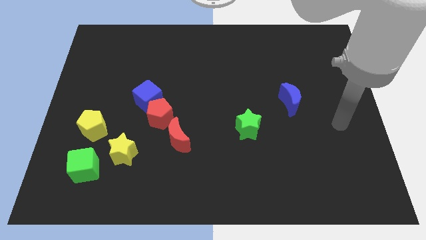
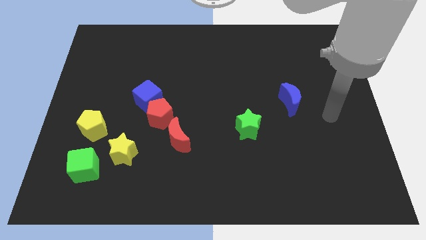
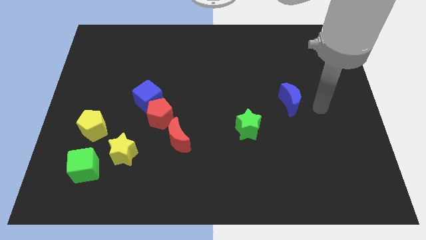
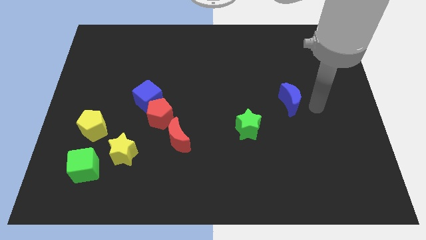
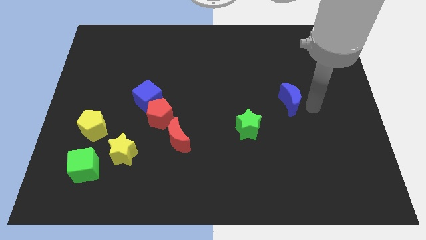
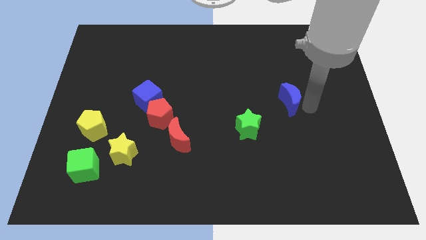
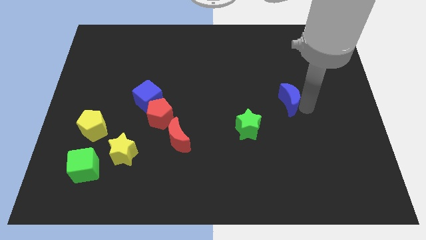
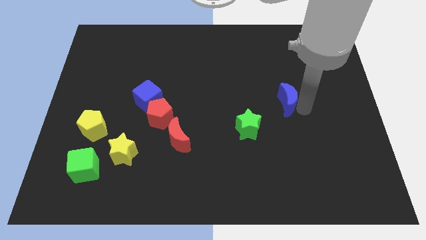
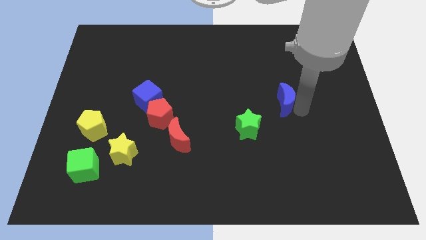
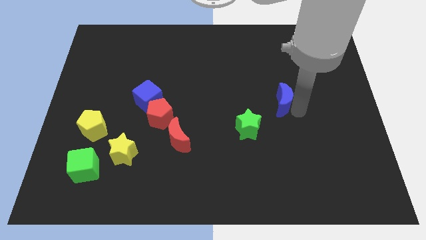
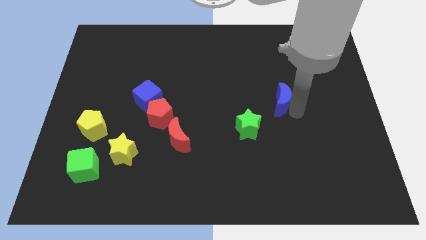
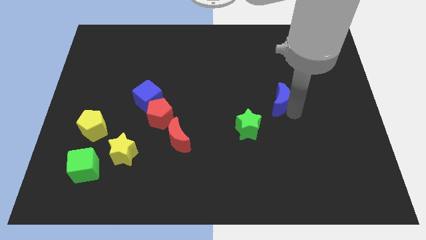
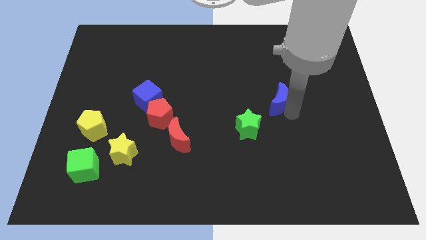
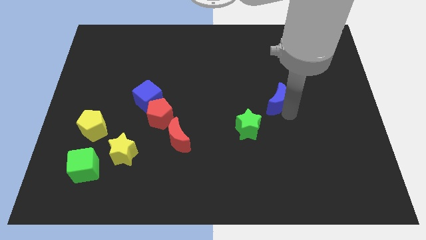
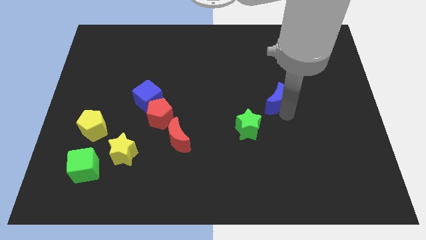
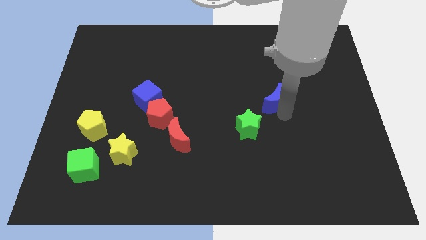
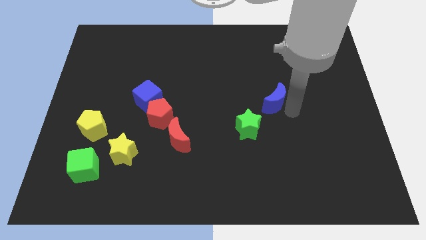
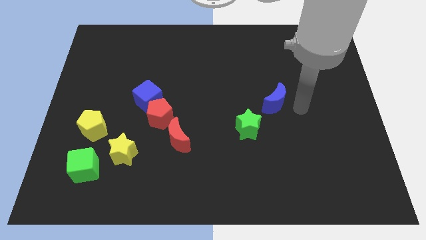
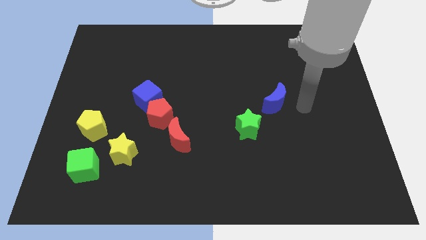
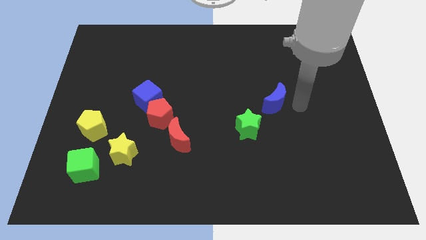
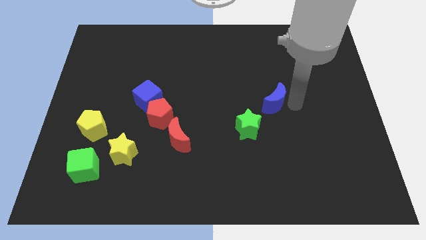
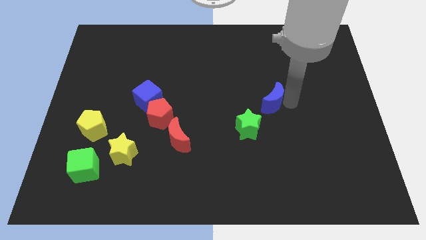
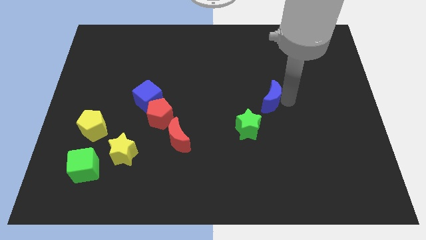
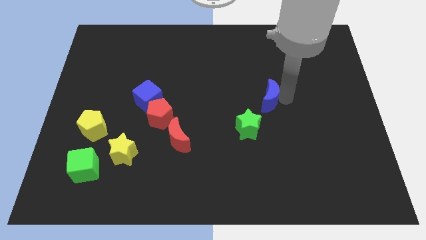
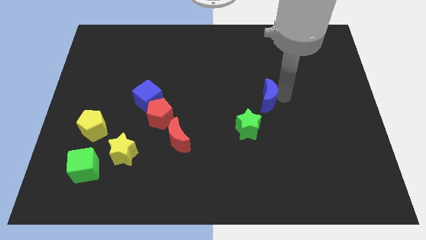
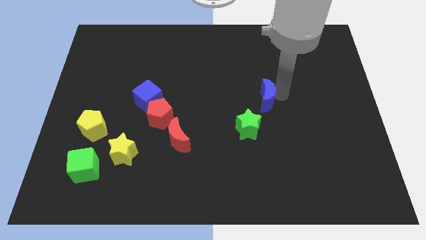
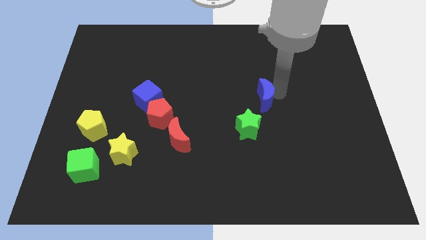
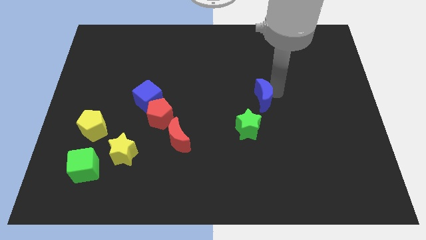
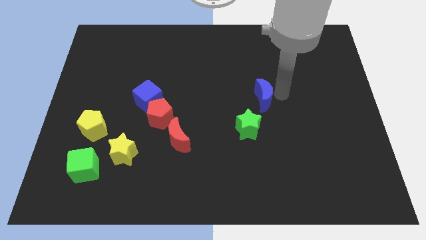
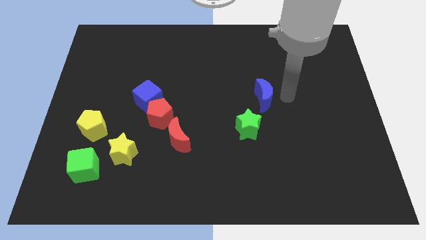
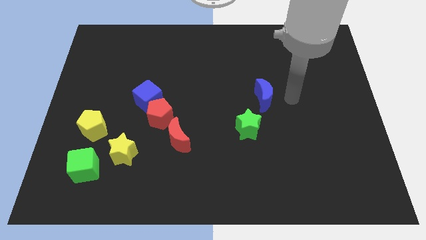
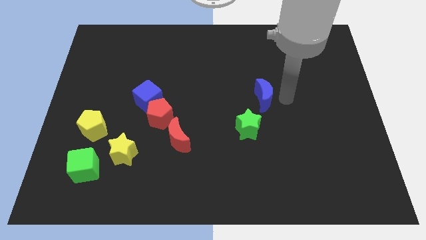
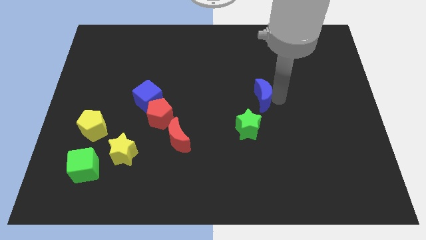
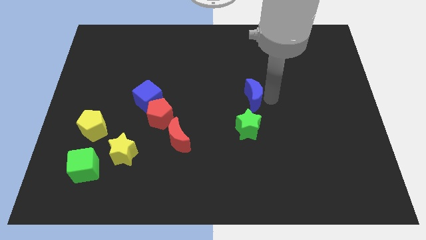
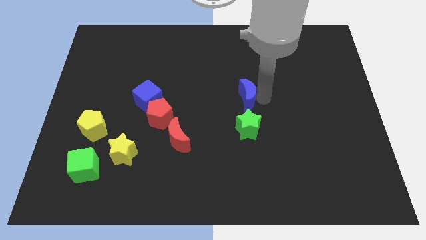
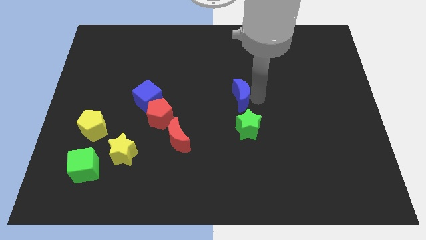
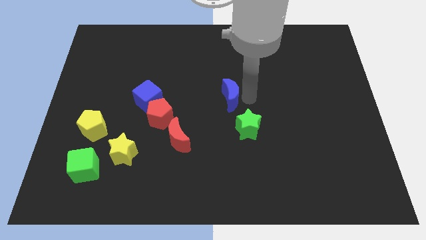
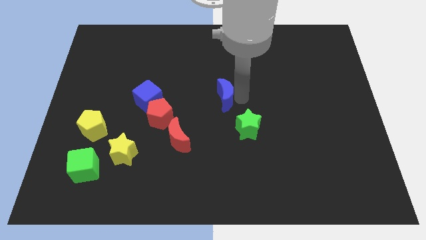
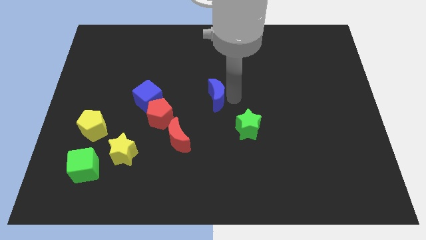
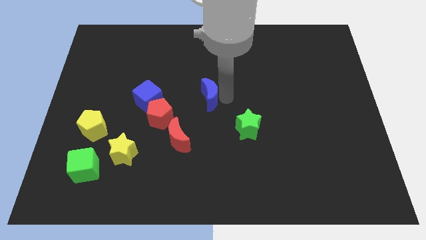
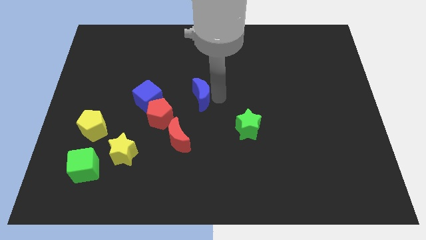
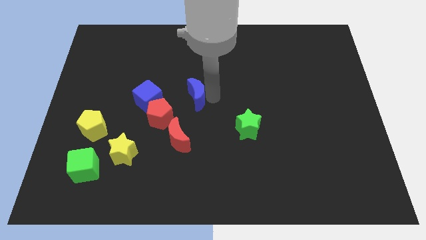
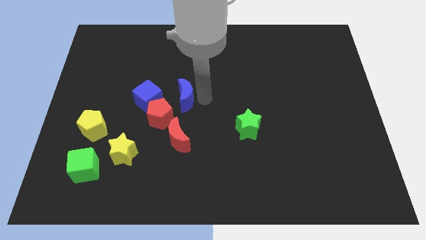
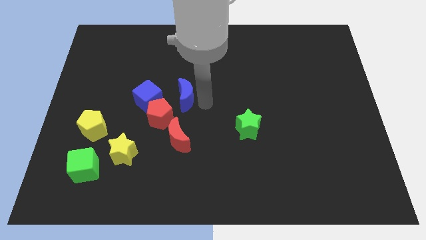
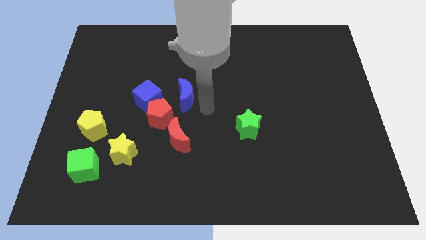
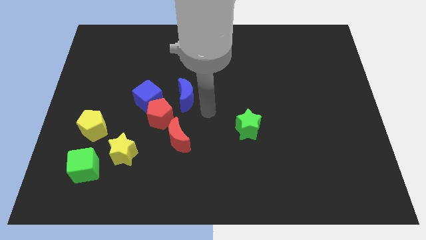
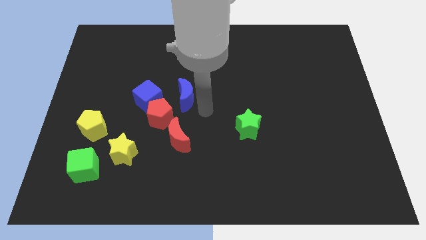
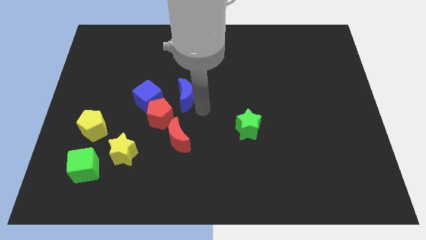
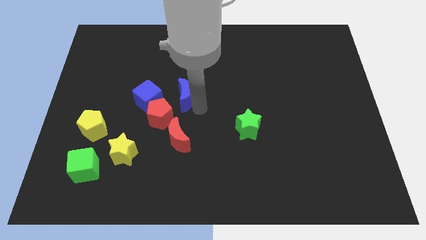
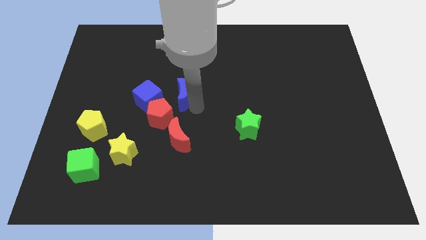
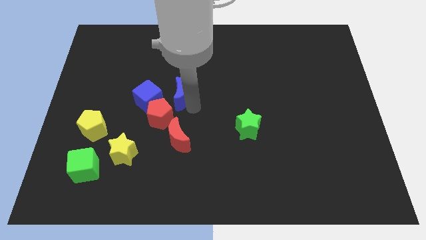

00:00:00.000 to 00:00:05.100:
push the blue moon above the red pentagon

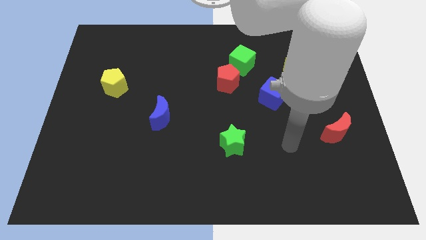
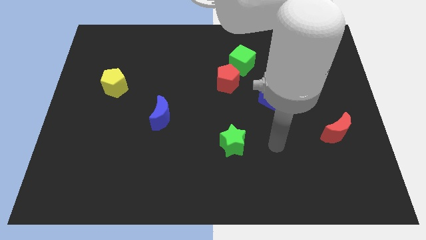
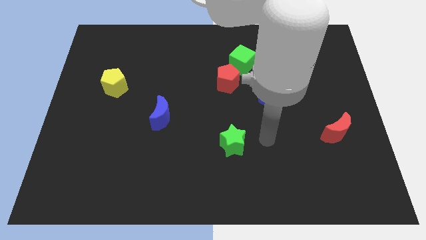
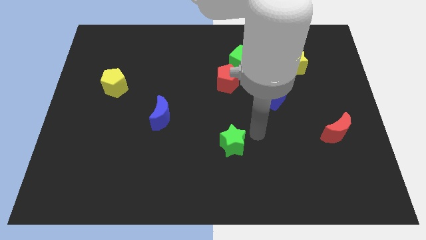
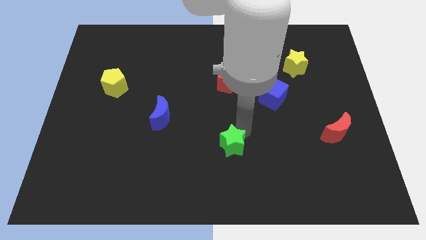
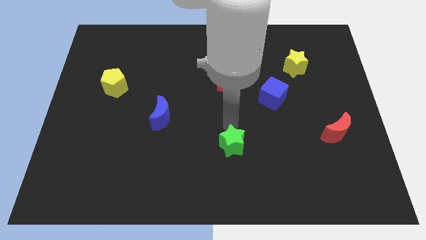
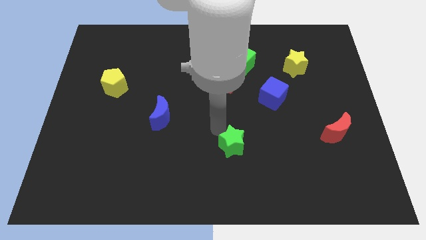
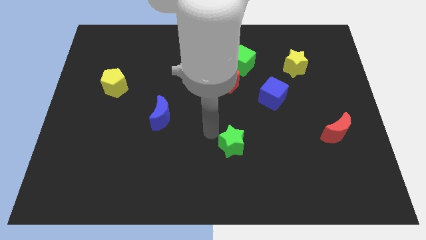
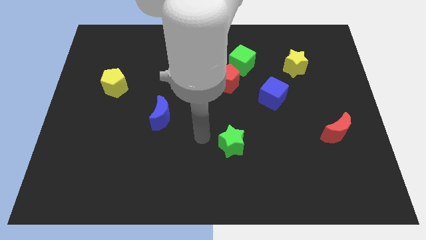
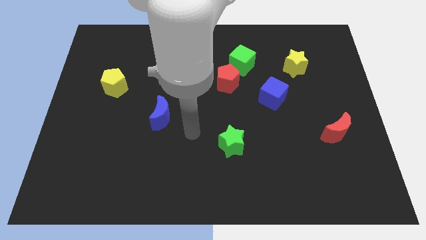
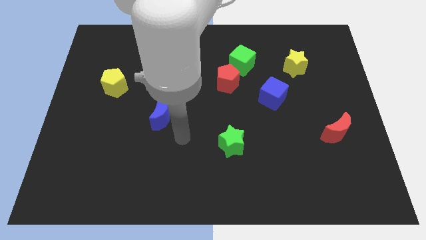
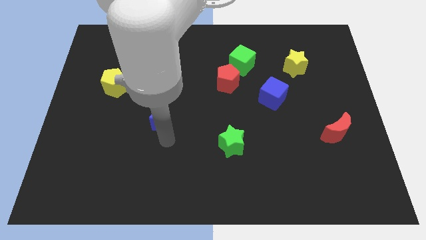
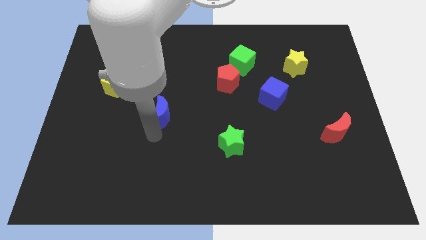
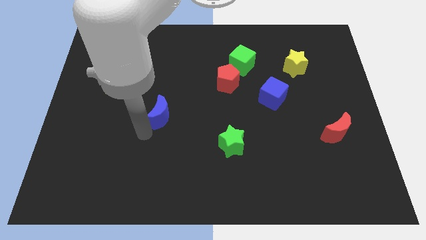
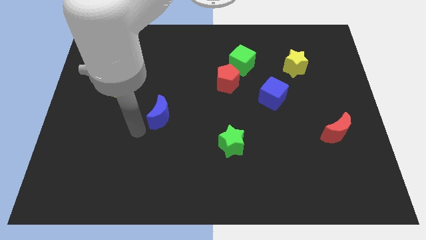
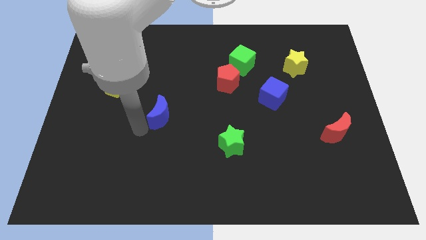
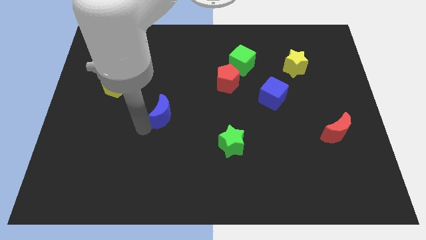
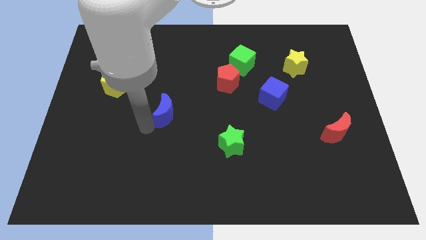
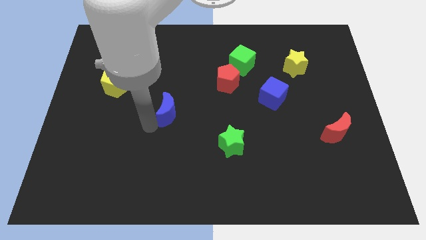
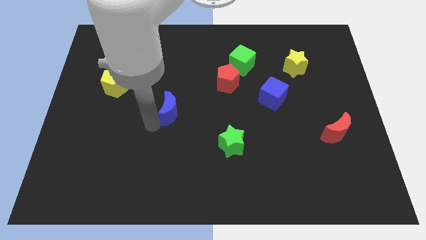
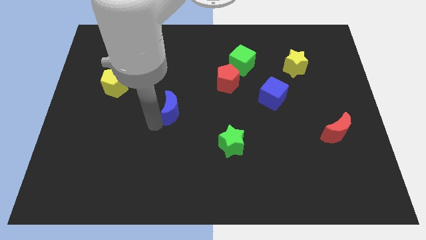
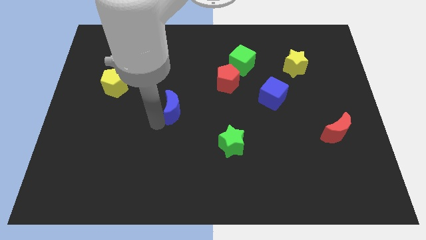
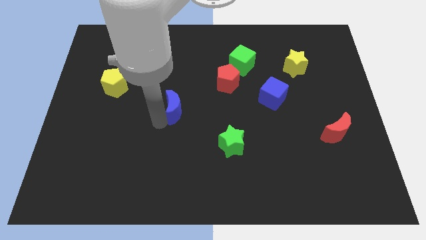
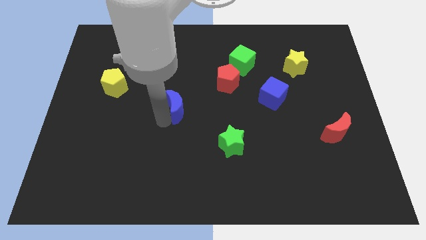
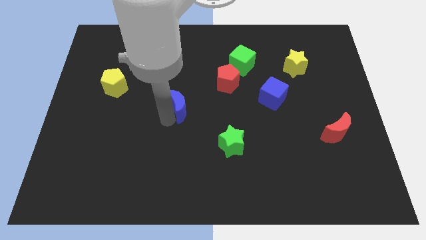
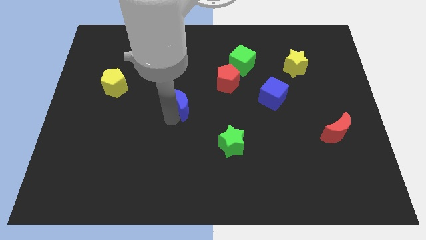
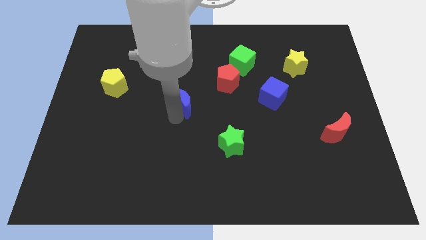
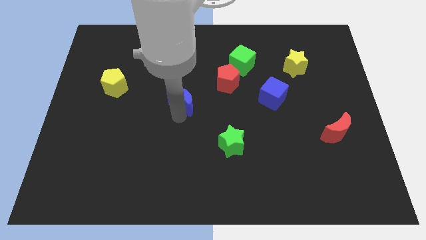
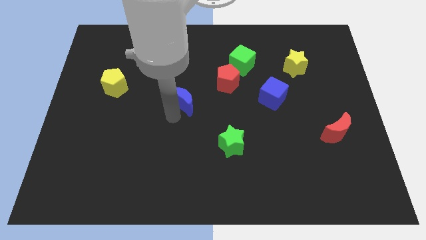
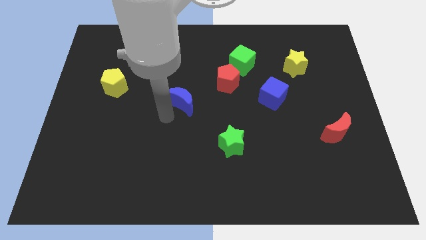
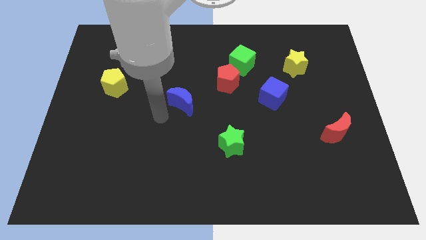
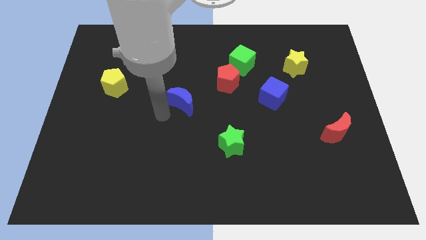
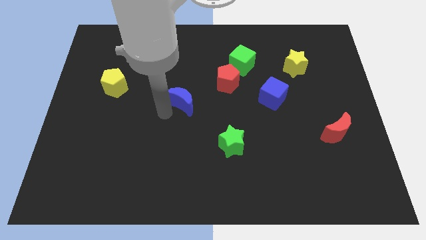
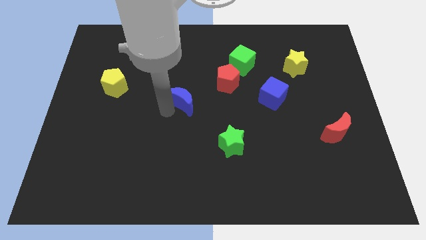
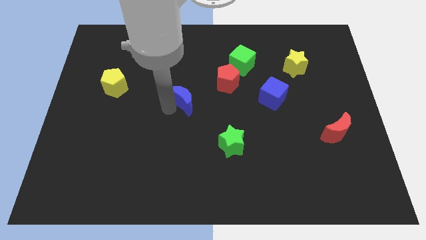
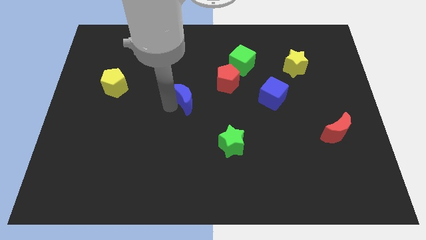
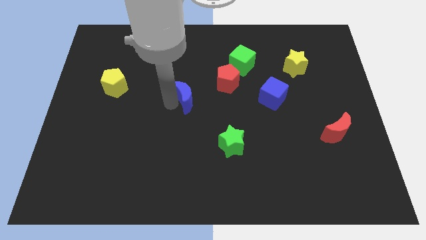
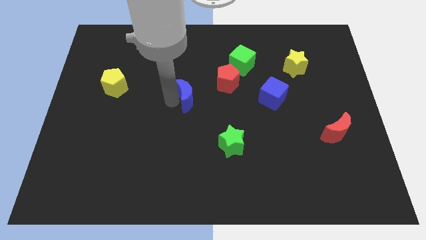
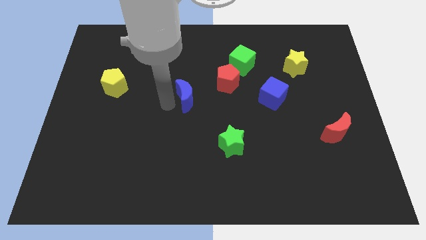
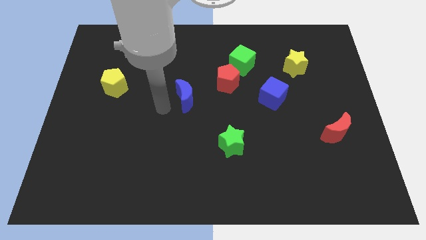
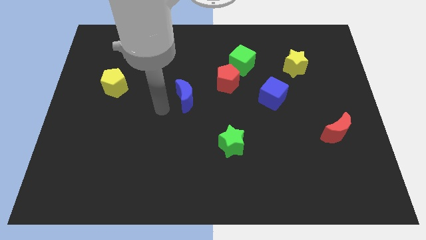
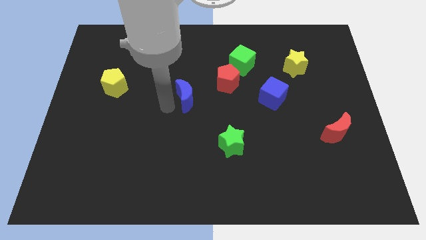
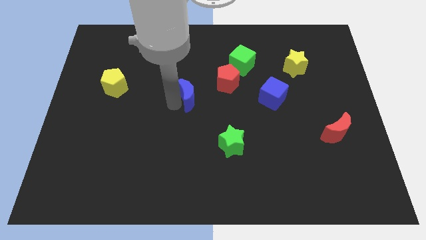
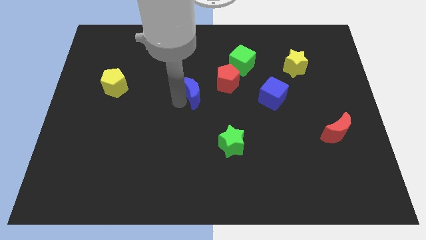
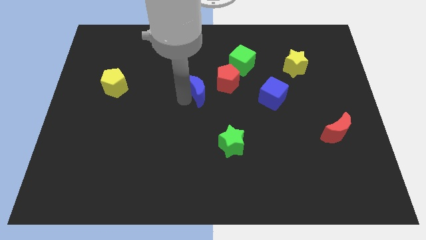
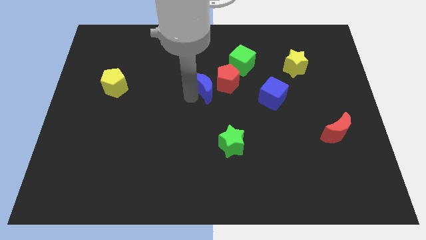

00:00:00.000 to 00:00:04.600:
slide the blue moon diagonally down and to the left of the green cube
